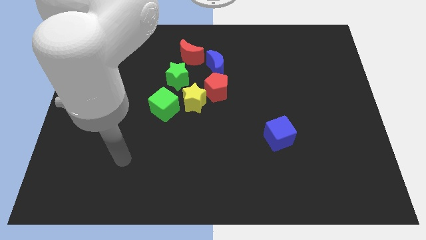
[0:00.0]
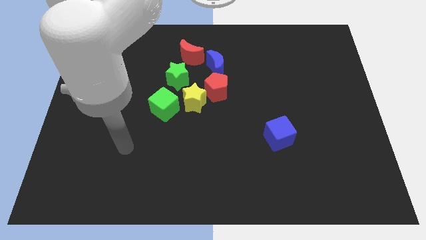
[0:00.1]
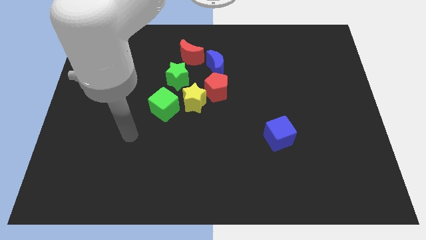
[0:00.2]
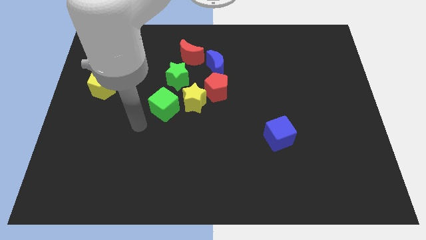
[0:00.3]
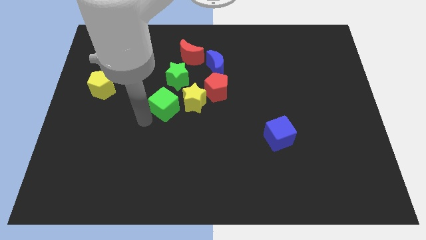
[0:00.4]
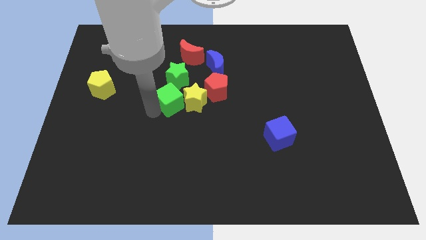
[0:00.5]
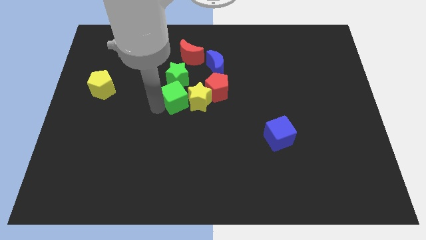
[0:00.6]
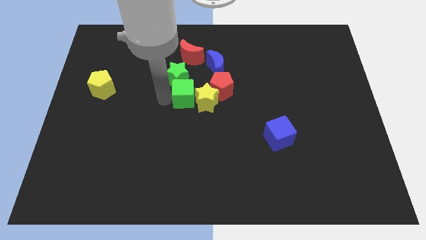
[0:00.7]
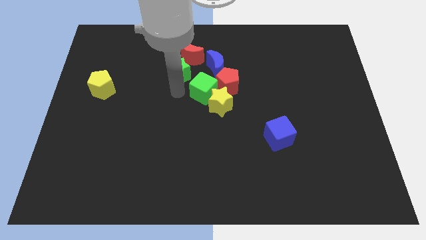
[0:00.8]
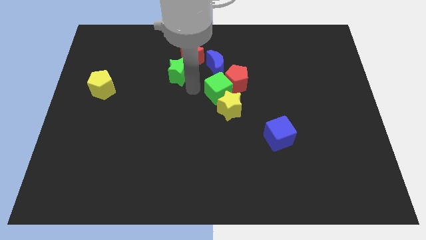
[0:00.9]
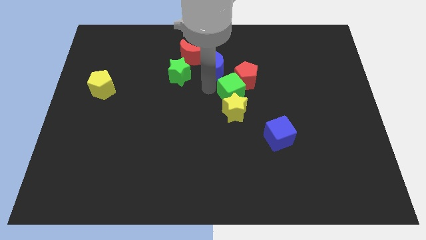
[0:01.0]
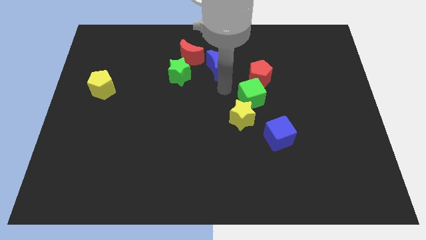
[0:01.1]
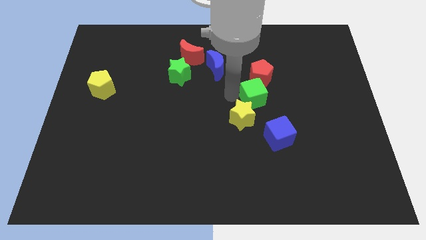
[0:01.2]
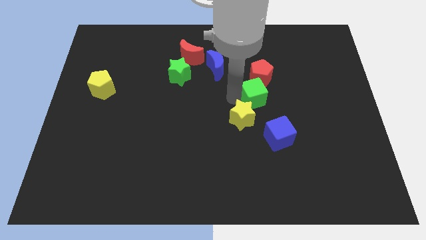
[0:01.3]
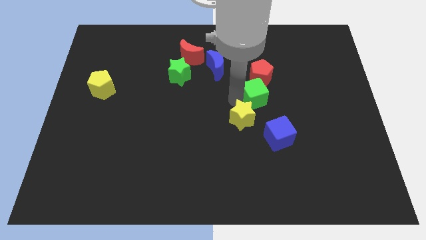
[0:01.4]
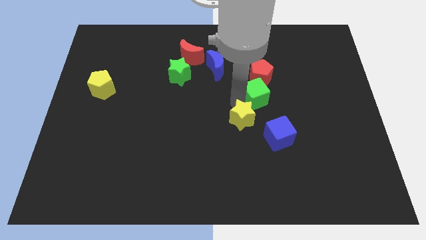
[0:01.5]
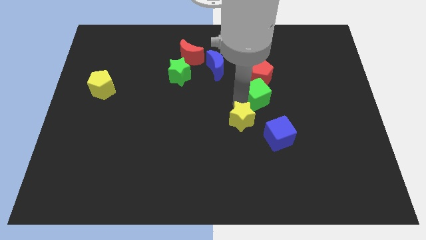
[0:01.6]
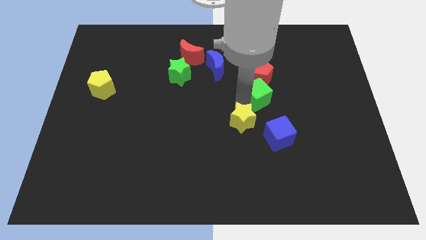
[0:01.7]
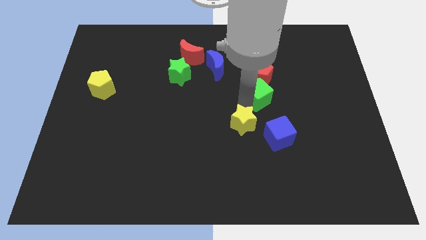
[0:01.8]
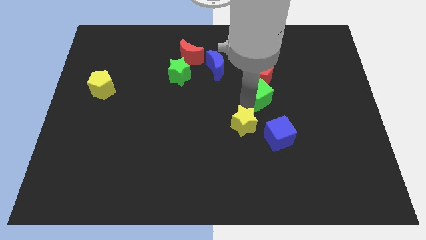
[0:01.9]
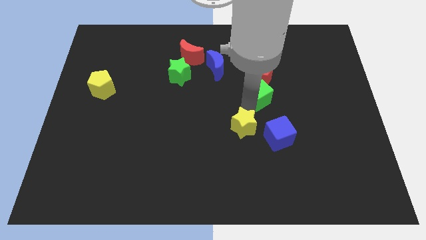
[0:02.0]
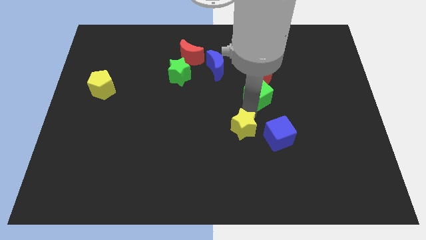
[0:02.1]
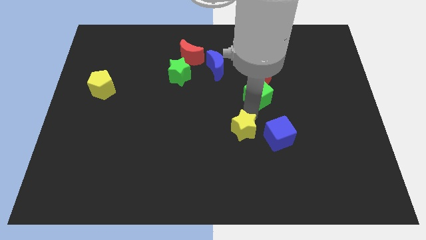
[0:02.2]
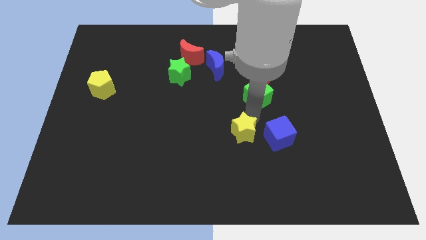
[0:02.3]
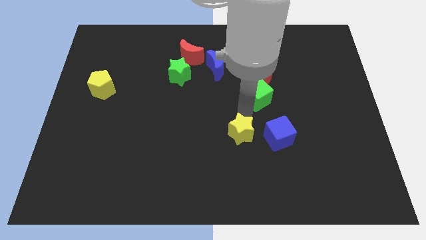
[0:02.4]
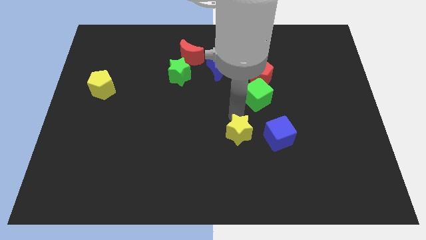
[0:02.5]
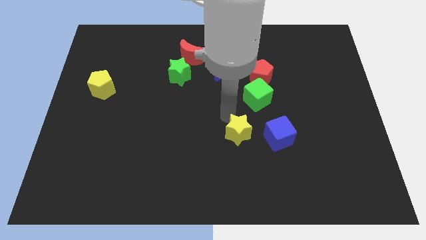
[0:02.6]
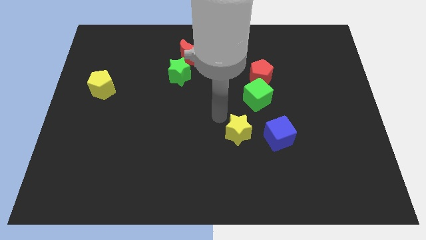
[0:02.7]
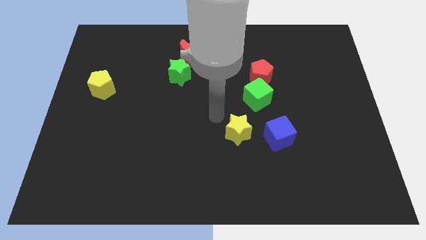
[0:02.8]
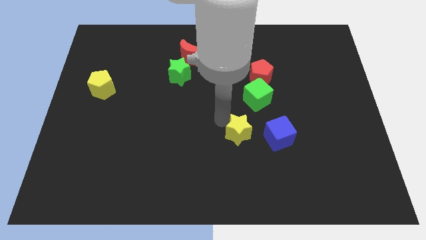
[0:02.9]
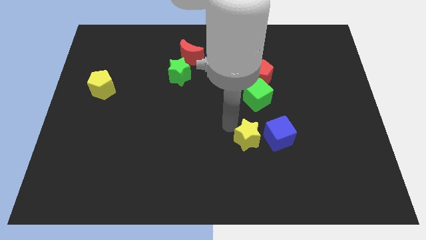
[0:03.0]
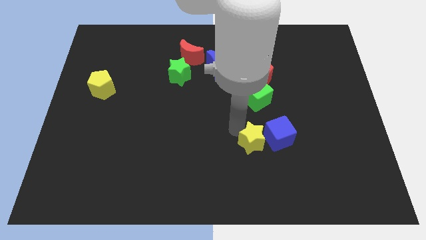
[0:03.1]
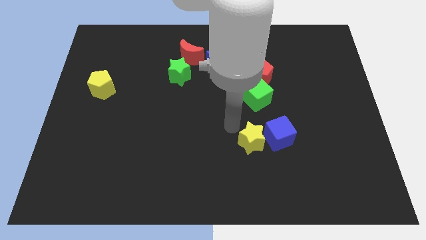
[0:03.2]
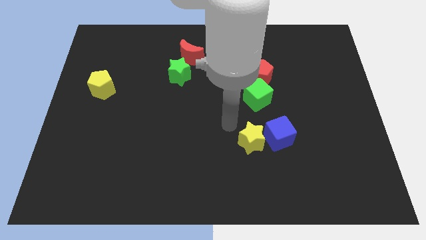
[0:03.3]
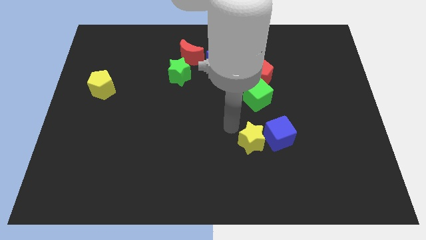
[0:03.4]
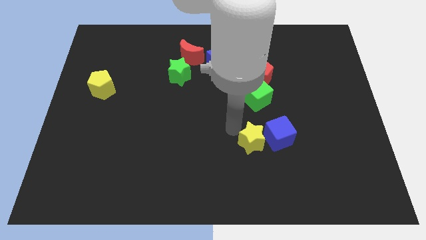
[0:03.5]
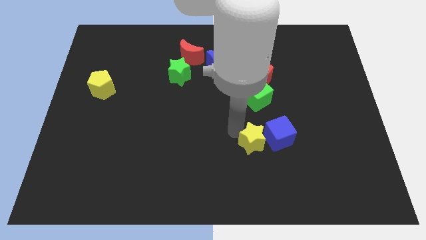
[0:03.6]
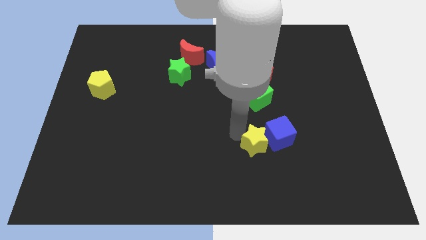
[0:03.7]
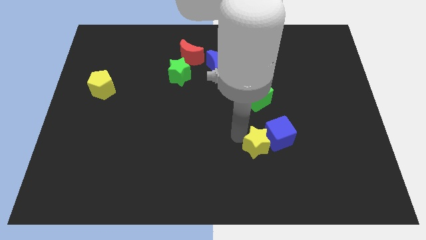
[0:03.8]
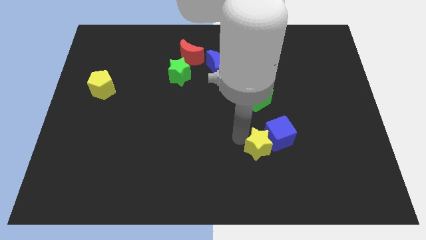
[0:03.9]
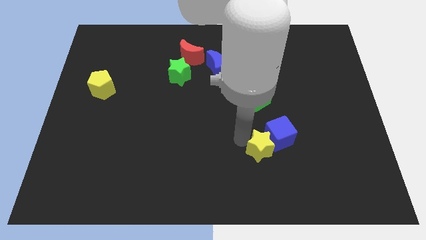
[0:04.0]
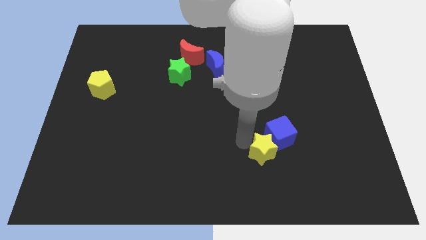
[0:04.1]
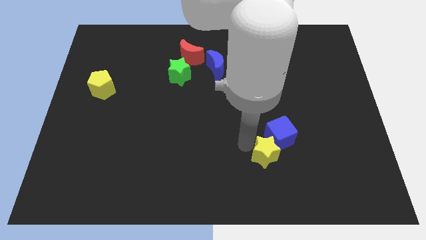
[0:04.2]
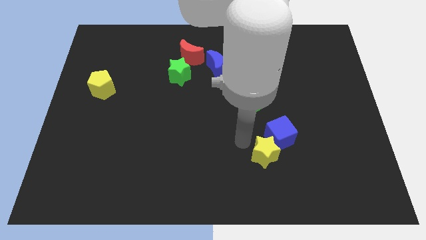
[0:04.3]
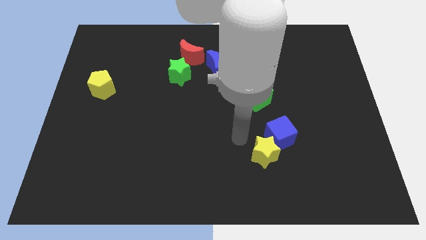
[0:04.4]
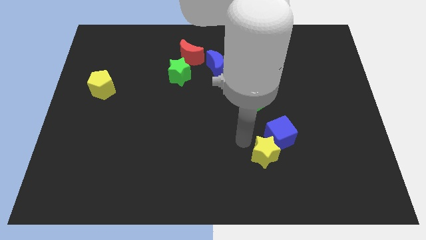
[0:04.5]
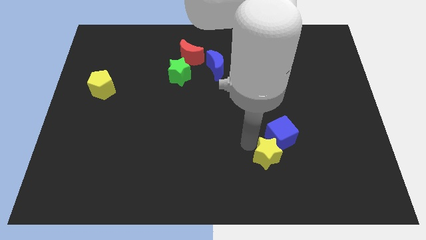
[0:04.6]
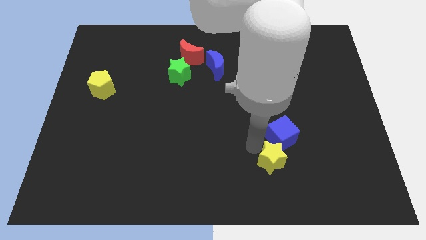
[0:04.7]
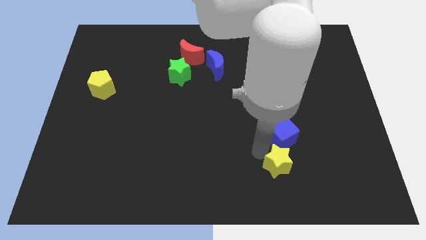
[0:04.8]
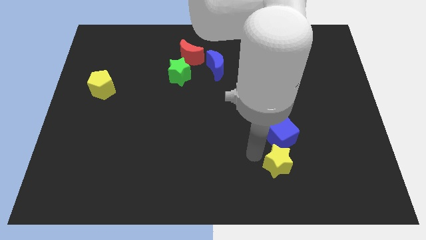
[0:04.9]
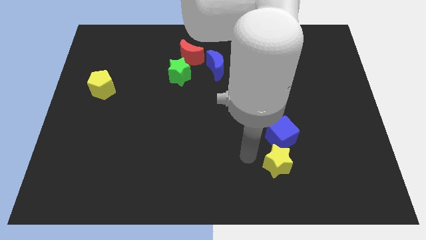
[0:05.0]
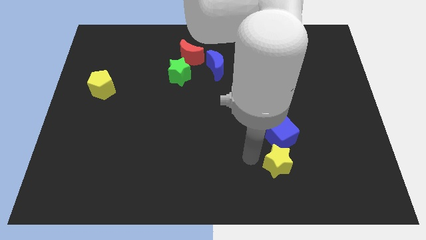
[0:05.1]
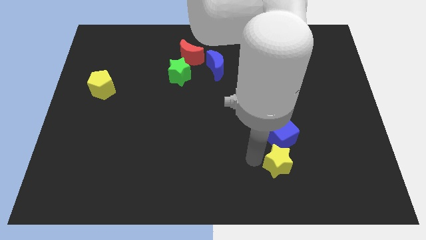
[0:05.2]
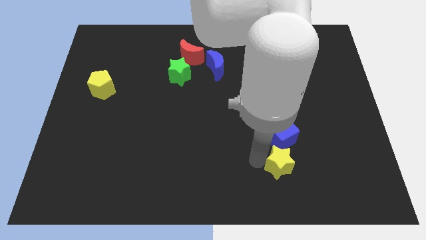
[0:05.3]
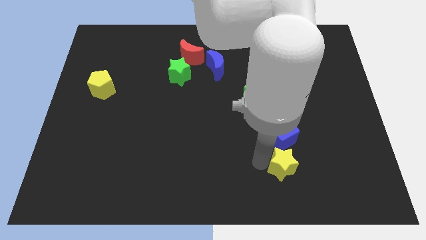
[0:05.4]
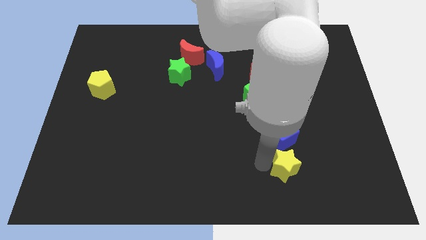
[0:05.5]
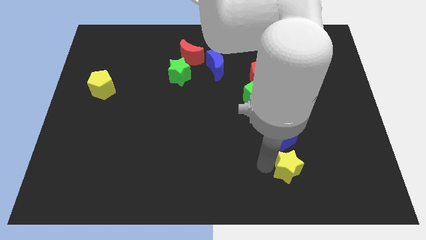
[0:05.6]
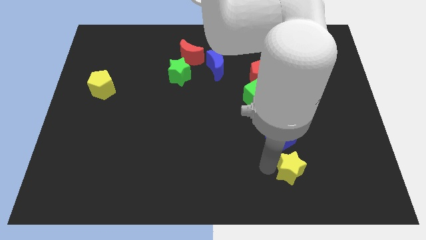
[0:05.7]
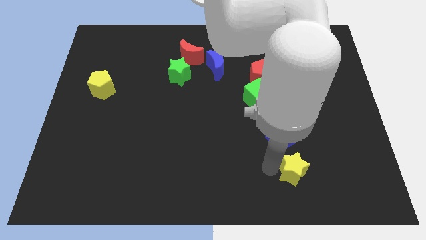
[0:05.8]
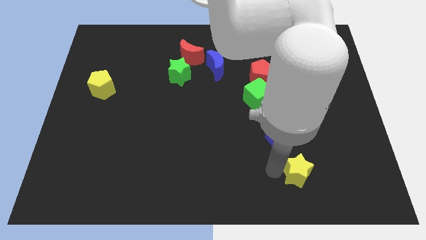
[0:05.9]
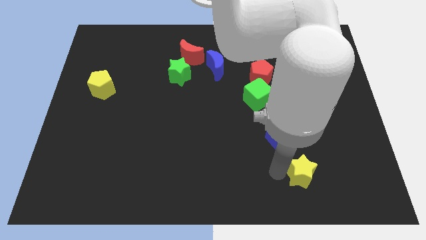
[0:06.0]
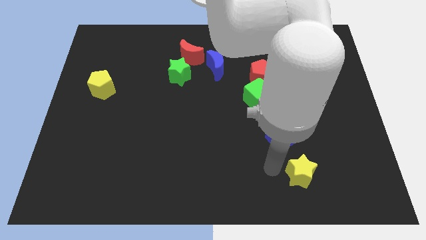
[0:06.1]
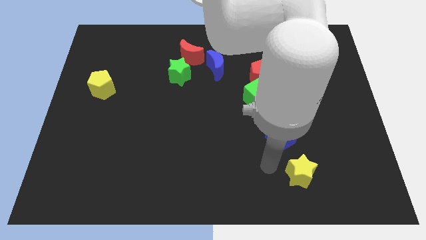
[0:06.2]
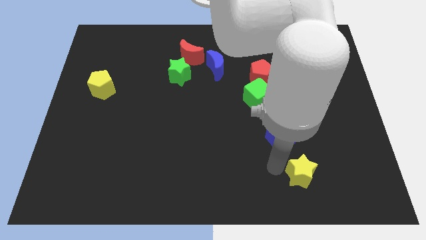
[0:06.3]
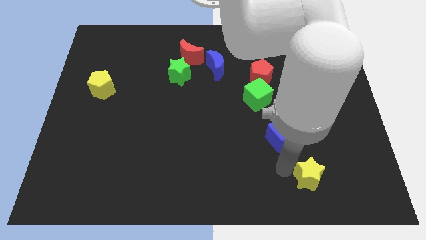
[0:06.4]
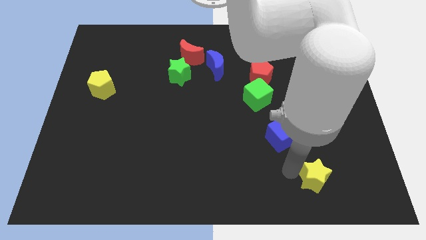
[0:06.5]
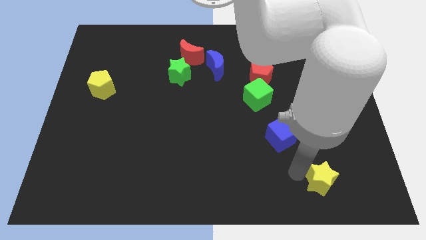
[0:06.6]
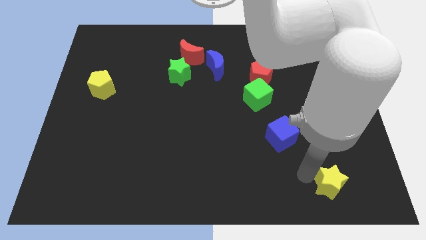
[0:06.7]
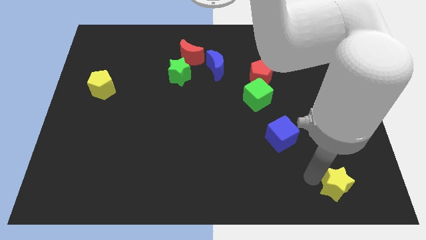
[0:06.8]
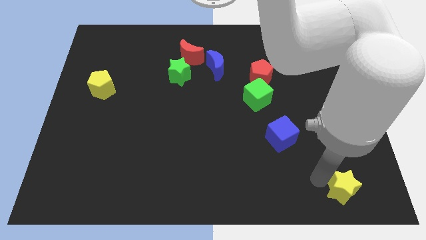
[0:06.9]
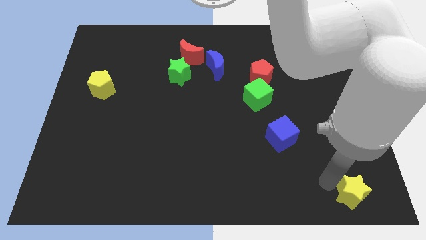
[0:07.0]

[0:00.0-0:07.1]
put the yellow star to the lower right corner
